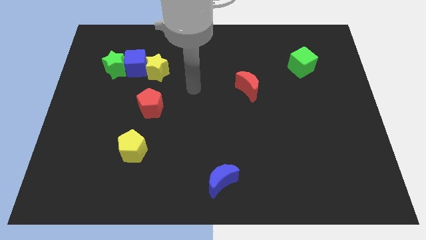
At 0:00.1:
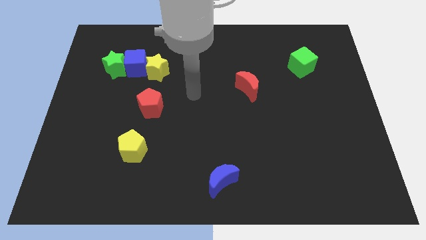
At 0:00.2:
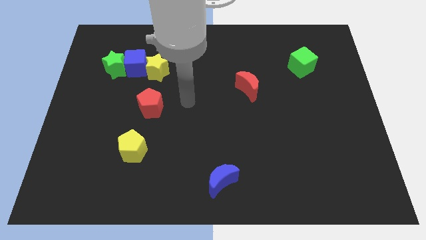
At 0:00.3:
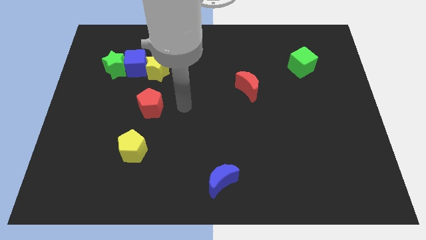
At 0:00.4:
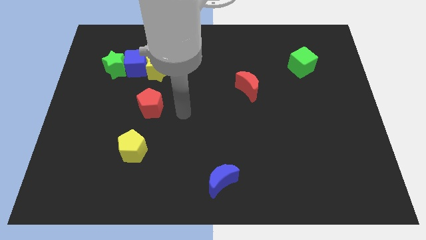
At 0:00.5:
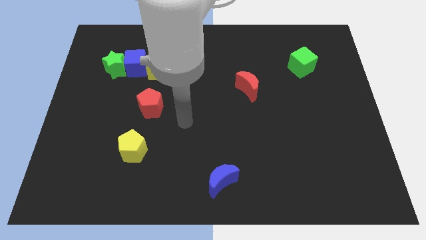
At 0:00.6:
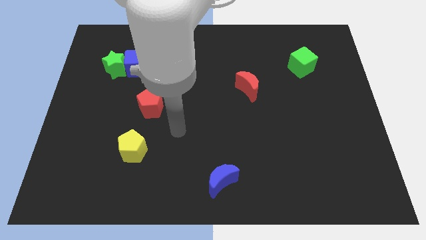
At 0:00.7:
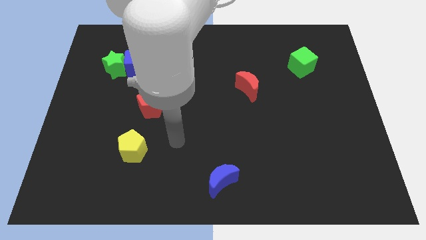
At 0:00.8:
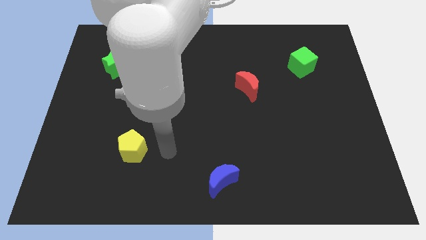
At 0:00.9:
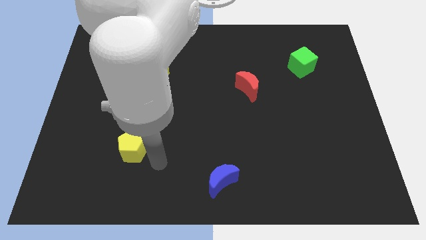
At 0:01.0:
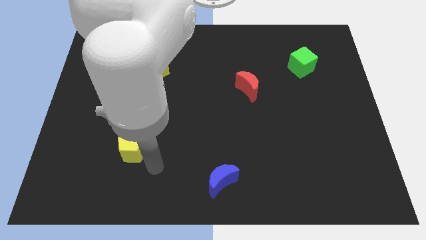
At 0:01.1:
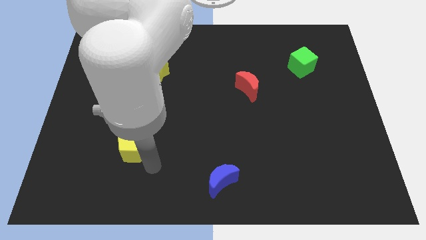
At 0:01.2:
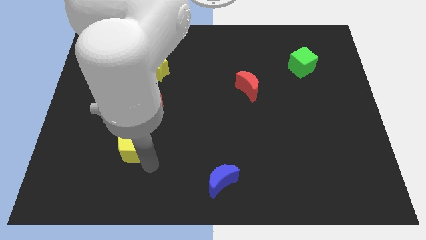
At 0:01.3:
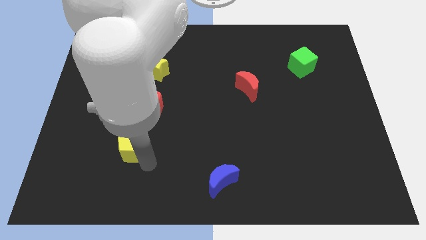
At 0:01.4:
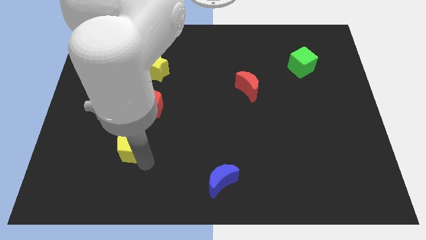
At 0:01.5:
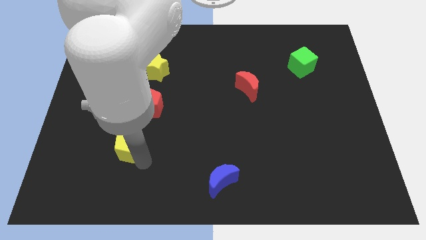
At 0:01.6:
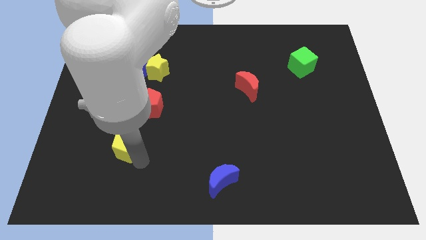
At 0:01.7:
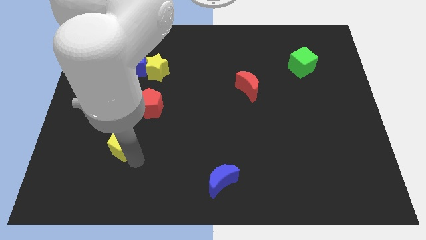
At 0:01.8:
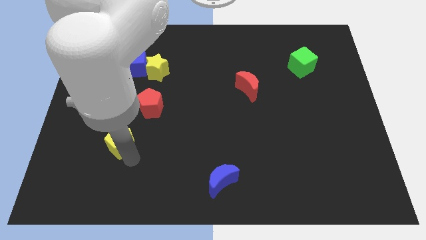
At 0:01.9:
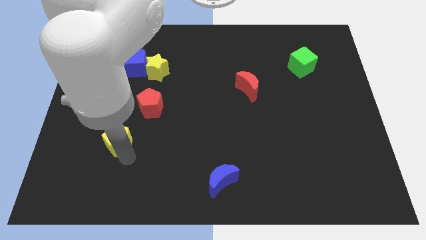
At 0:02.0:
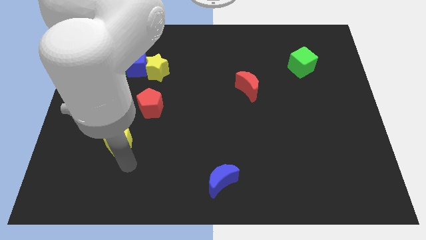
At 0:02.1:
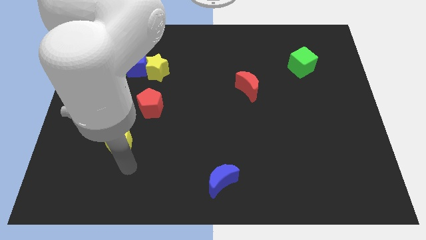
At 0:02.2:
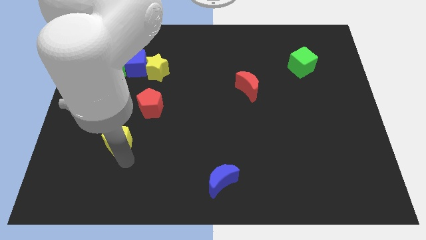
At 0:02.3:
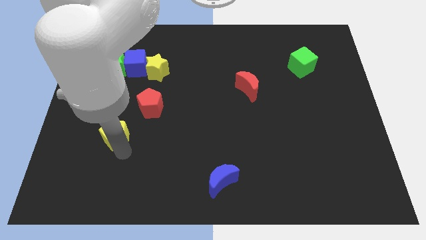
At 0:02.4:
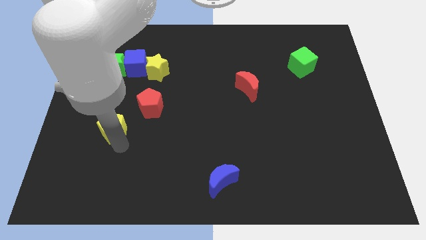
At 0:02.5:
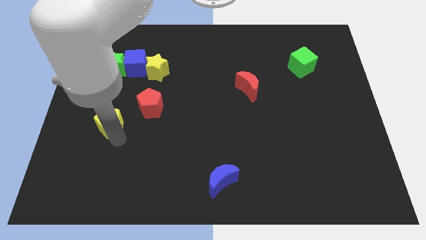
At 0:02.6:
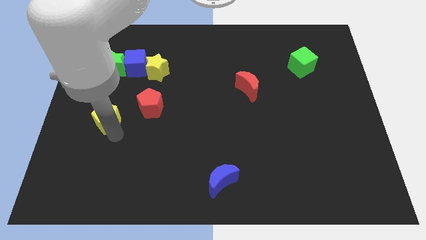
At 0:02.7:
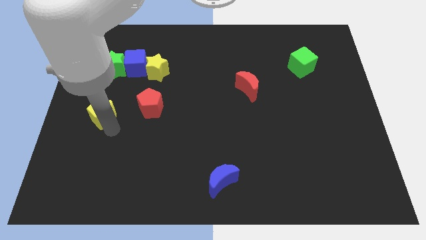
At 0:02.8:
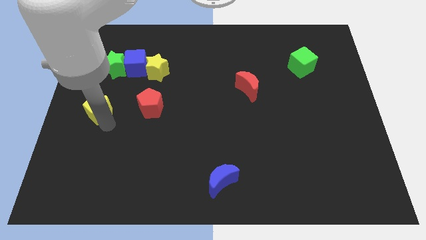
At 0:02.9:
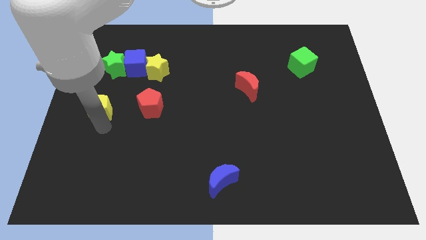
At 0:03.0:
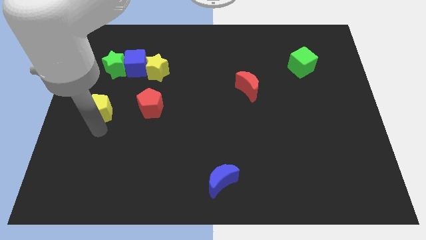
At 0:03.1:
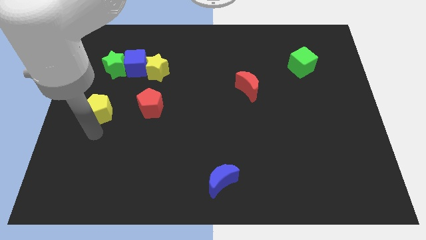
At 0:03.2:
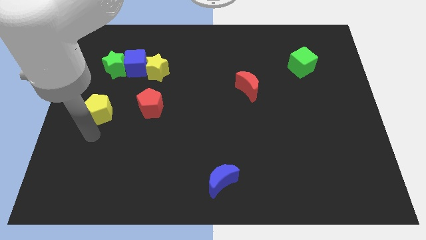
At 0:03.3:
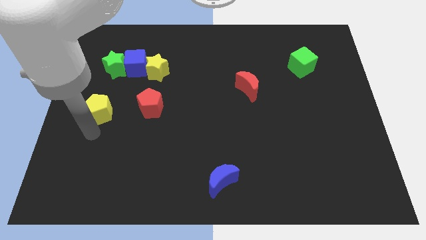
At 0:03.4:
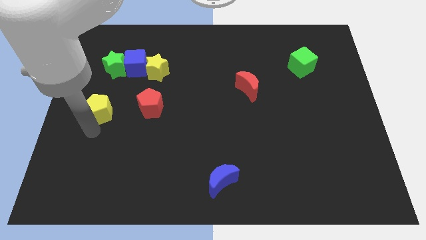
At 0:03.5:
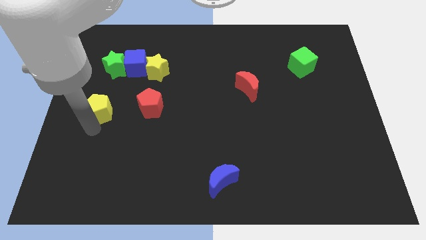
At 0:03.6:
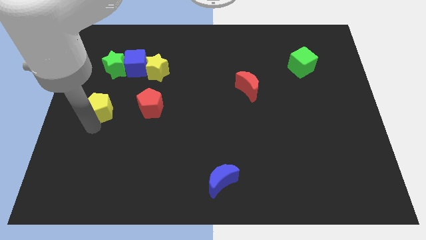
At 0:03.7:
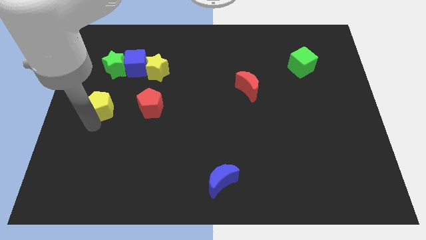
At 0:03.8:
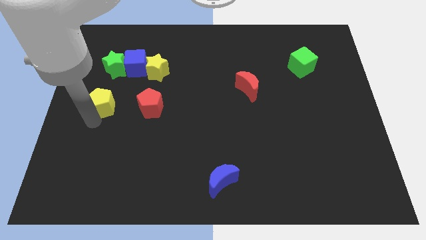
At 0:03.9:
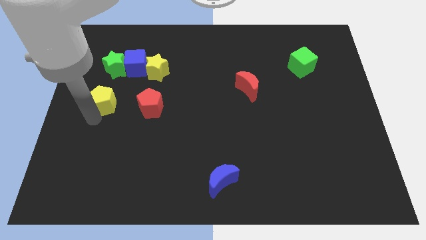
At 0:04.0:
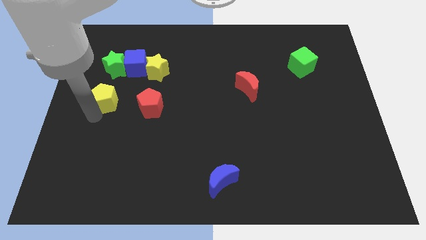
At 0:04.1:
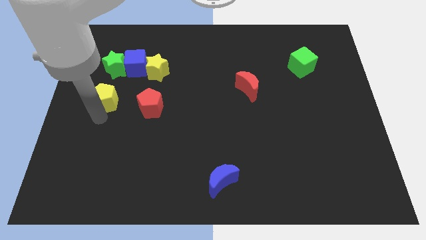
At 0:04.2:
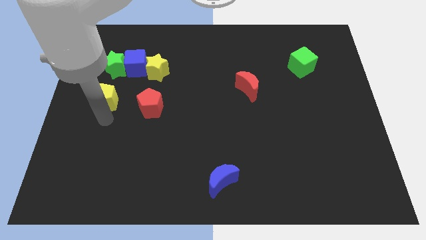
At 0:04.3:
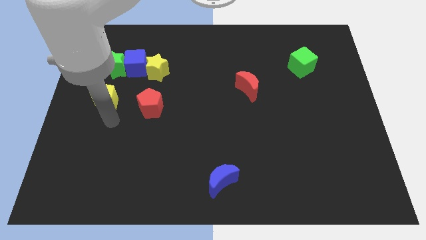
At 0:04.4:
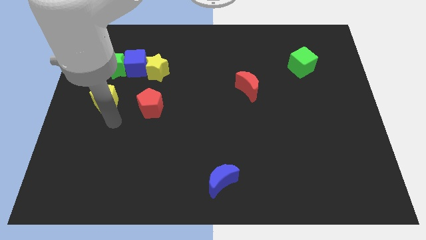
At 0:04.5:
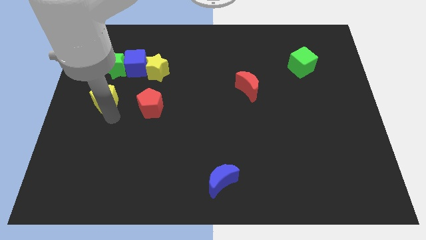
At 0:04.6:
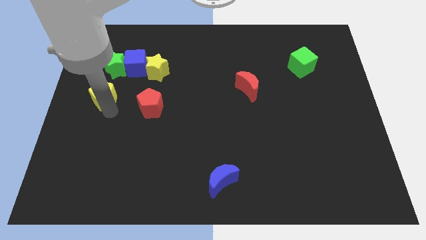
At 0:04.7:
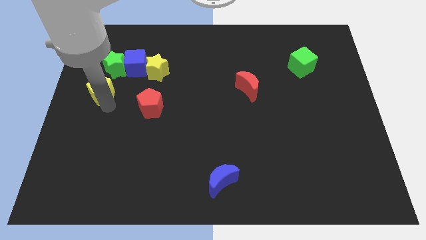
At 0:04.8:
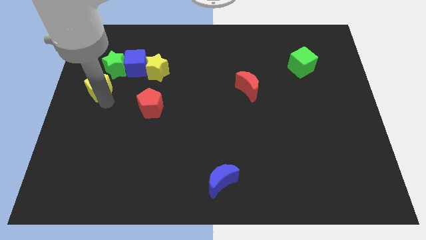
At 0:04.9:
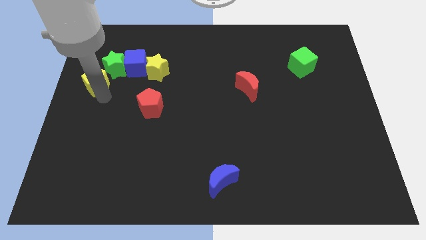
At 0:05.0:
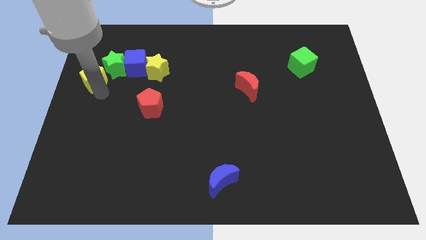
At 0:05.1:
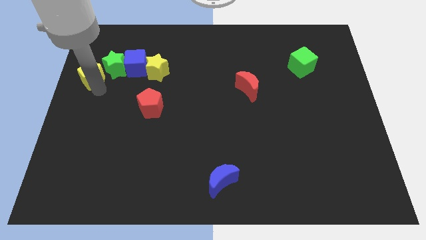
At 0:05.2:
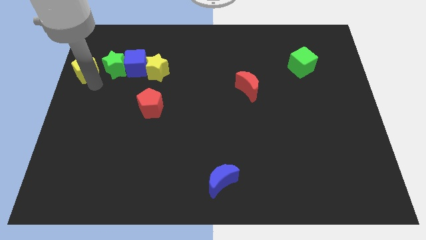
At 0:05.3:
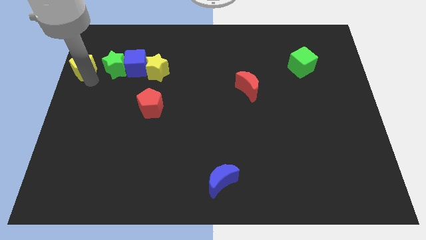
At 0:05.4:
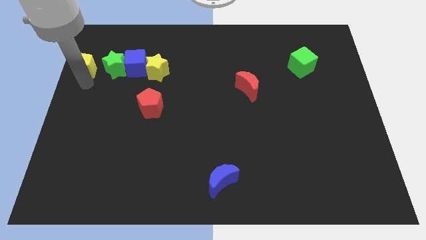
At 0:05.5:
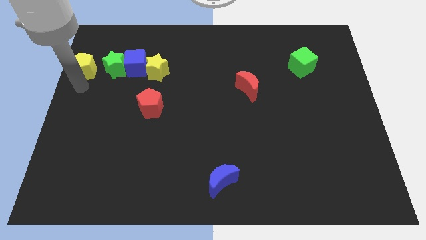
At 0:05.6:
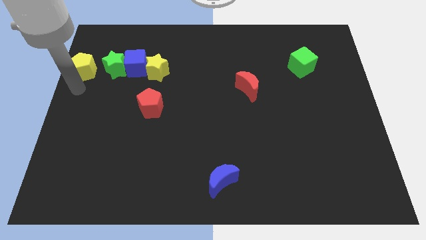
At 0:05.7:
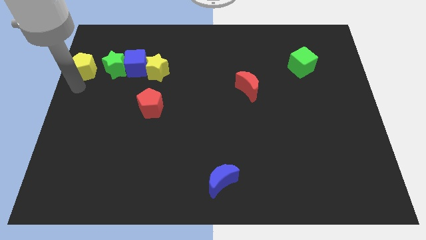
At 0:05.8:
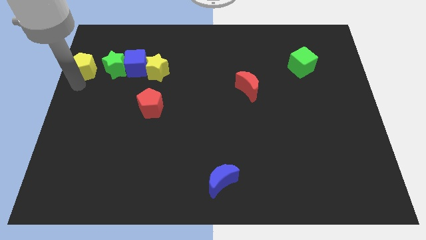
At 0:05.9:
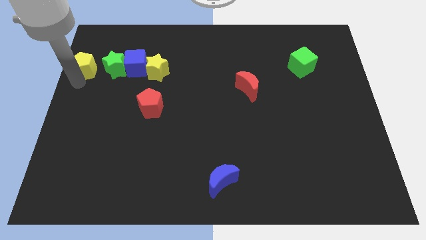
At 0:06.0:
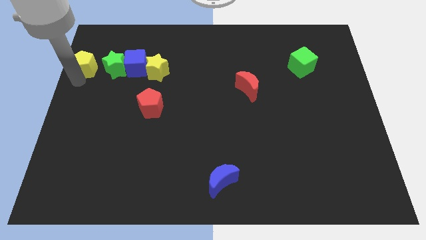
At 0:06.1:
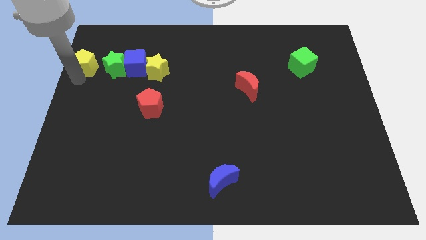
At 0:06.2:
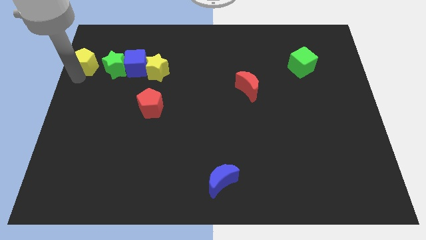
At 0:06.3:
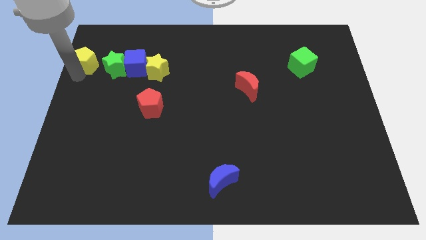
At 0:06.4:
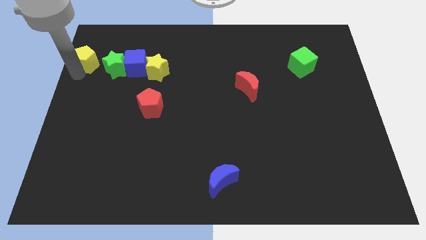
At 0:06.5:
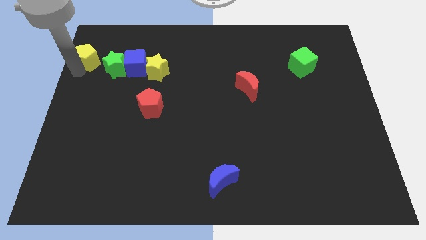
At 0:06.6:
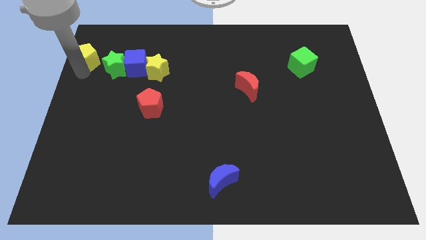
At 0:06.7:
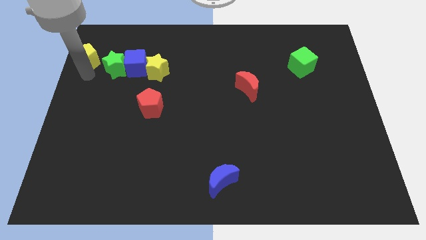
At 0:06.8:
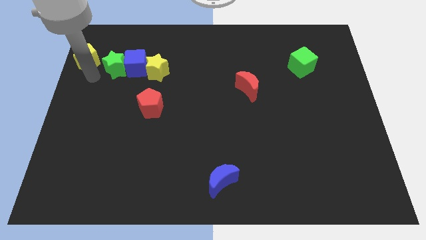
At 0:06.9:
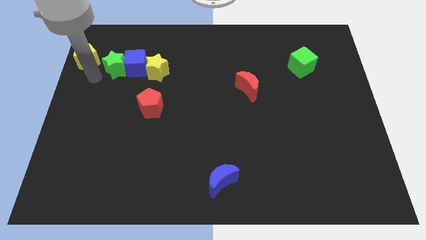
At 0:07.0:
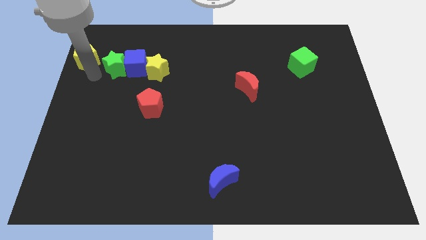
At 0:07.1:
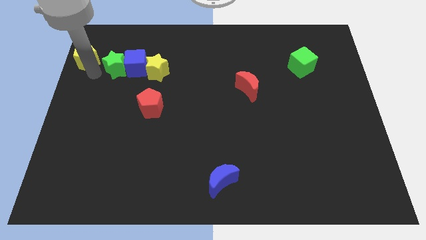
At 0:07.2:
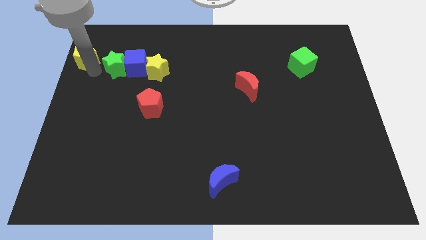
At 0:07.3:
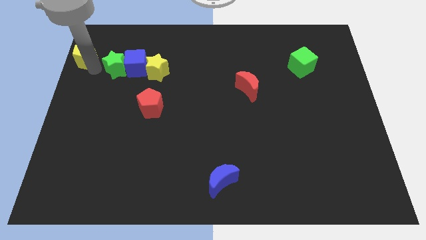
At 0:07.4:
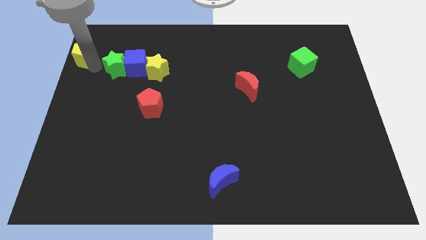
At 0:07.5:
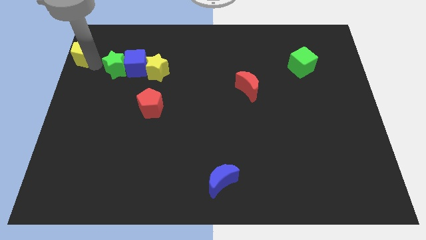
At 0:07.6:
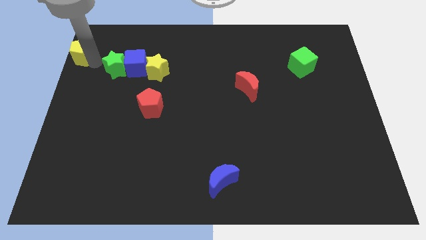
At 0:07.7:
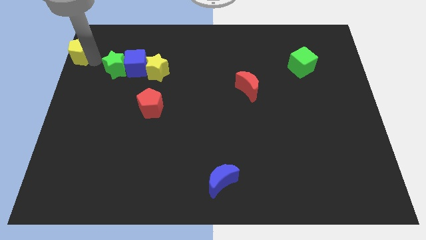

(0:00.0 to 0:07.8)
push the yellow pentagon to the top left of the board
